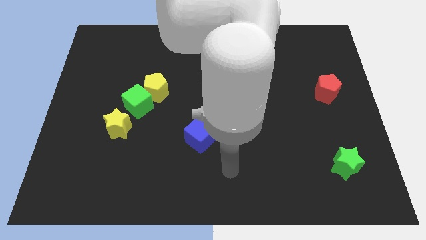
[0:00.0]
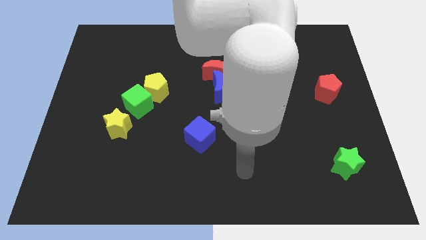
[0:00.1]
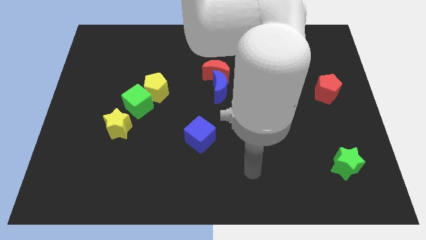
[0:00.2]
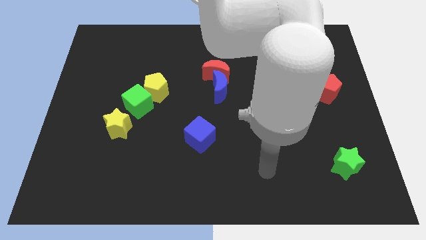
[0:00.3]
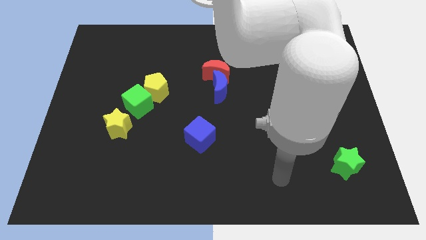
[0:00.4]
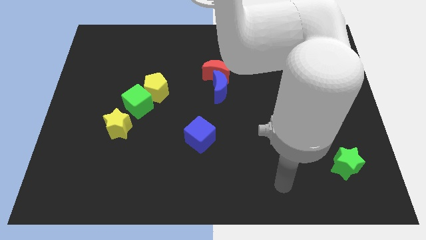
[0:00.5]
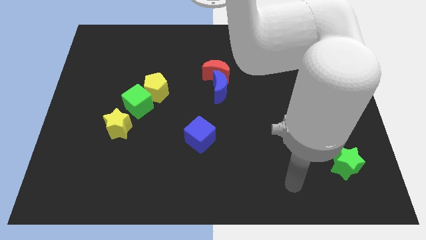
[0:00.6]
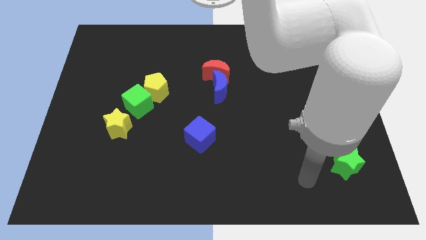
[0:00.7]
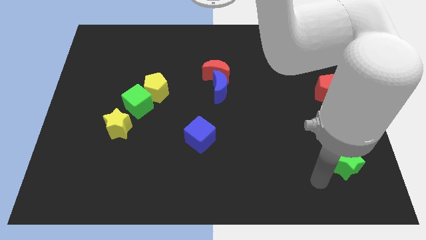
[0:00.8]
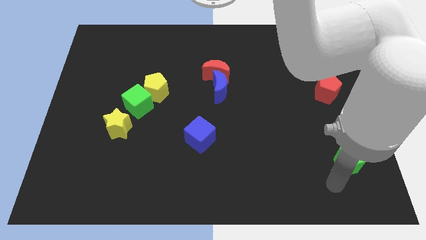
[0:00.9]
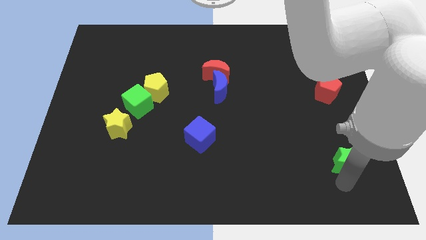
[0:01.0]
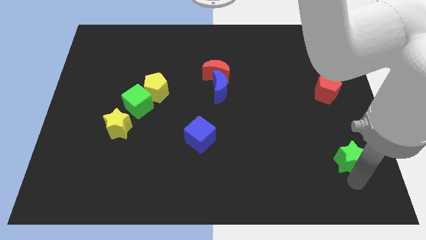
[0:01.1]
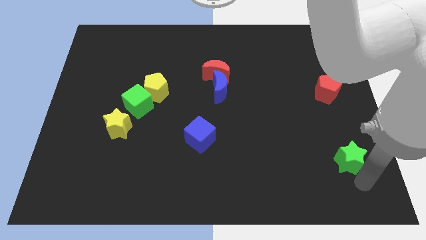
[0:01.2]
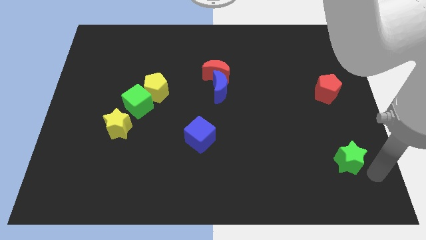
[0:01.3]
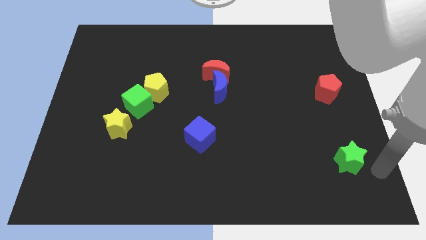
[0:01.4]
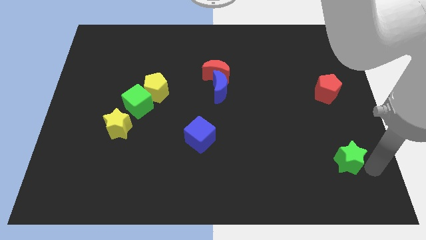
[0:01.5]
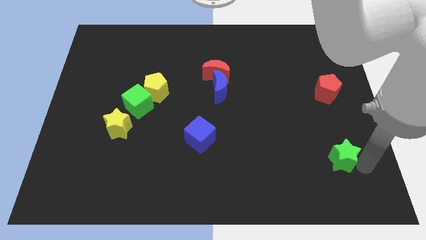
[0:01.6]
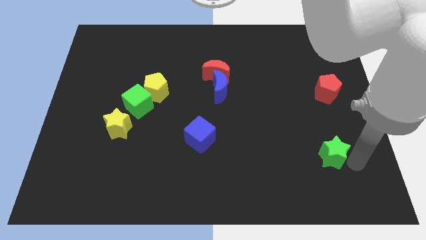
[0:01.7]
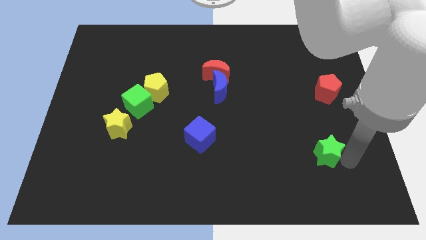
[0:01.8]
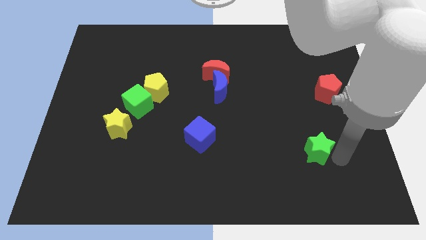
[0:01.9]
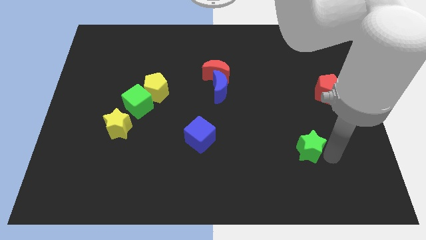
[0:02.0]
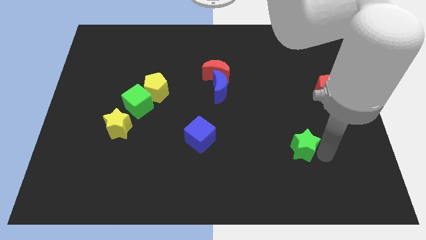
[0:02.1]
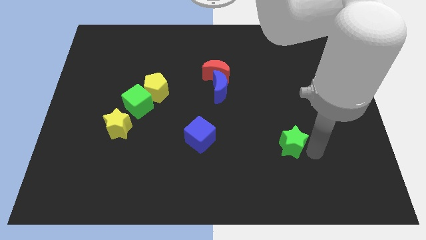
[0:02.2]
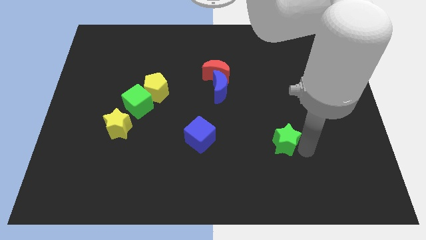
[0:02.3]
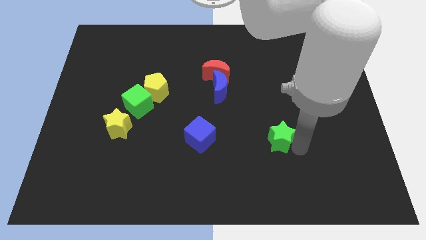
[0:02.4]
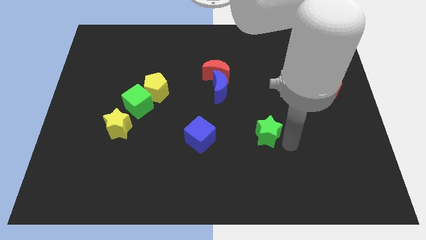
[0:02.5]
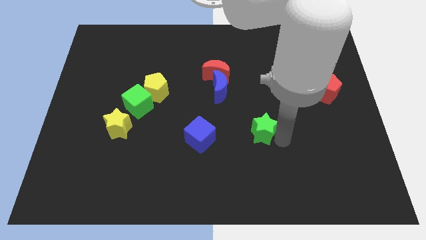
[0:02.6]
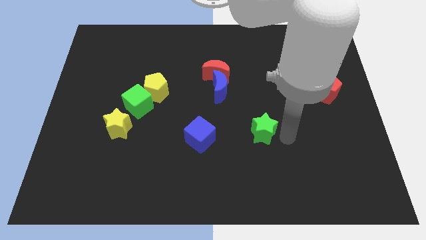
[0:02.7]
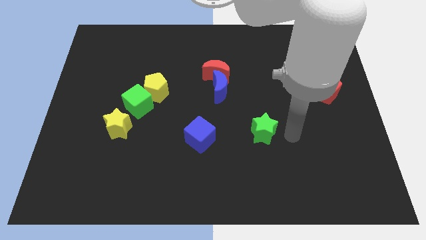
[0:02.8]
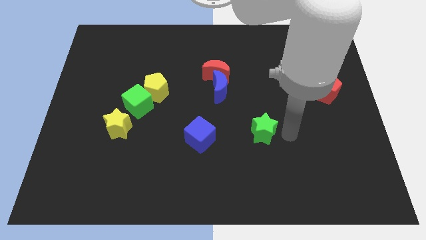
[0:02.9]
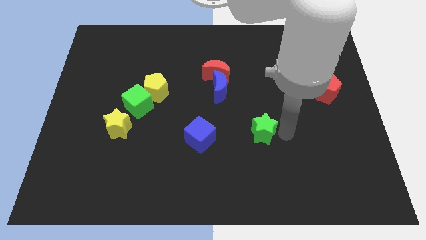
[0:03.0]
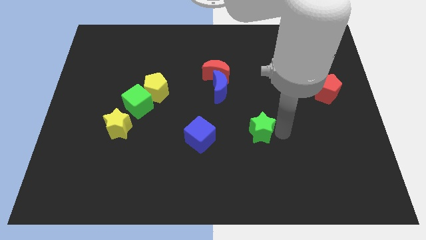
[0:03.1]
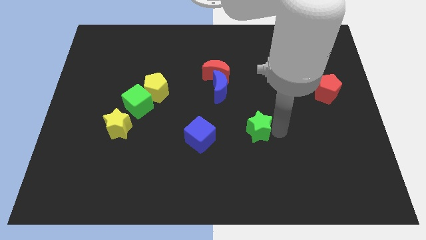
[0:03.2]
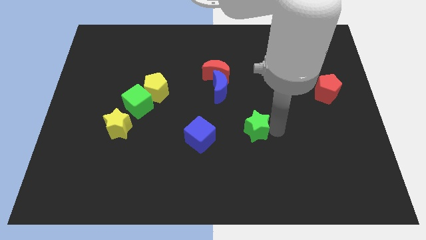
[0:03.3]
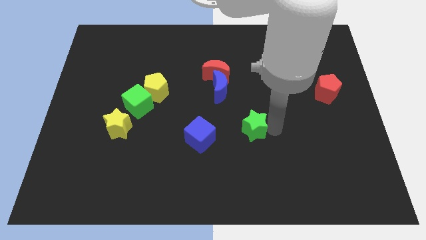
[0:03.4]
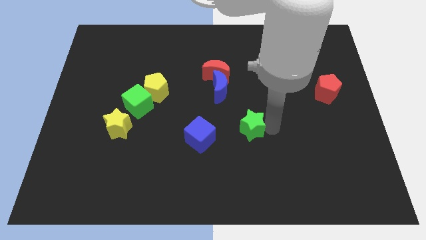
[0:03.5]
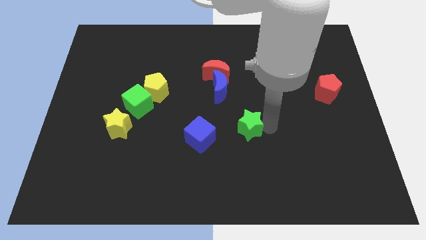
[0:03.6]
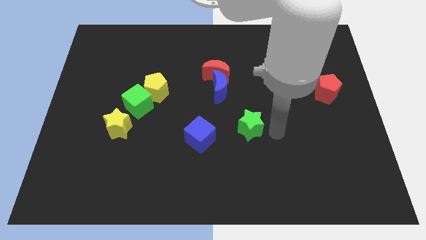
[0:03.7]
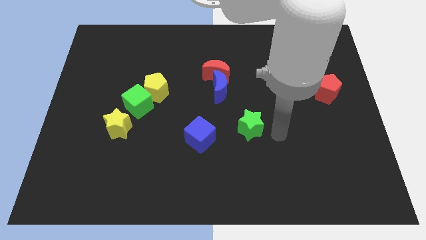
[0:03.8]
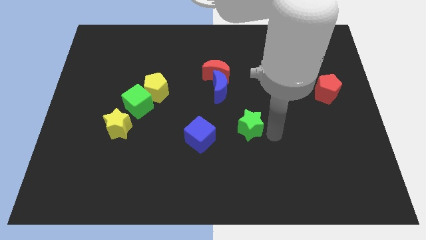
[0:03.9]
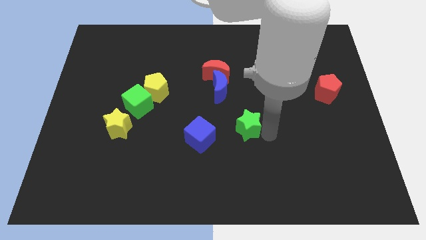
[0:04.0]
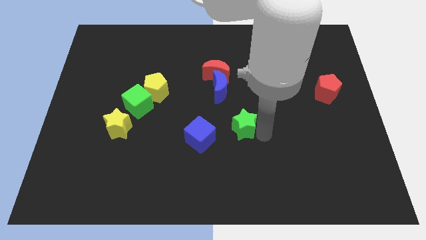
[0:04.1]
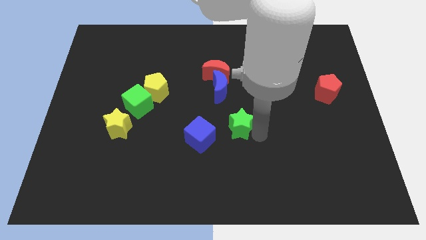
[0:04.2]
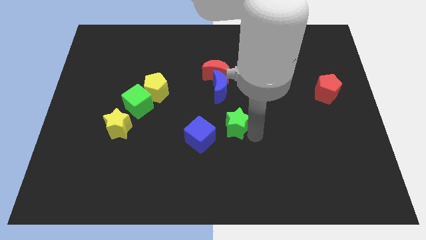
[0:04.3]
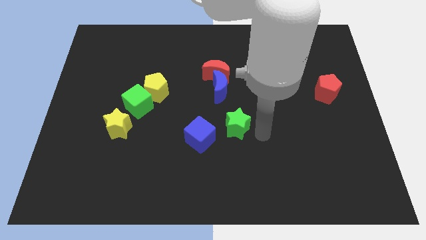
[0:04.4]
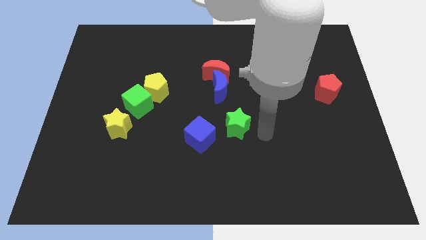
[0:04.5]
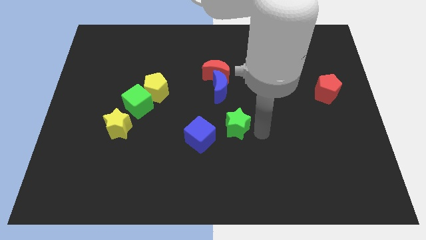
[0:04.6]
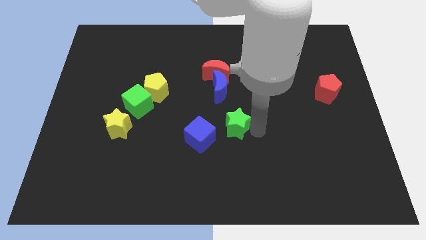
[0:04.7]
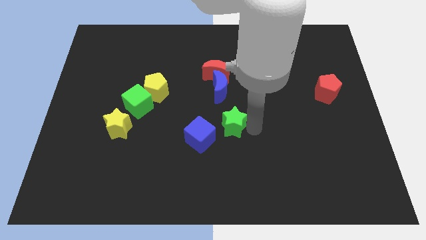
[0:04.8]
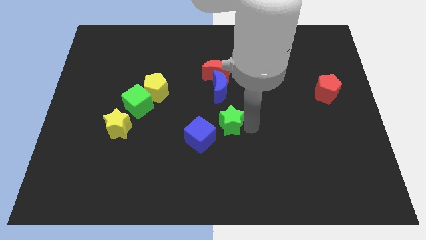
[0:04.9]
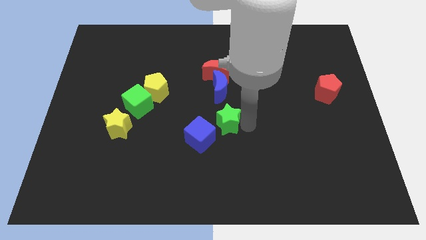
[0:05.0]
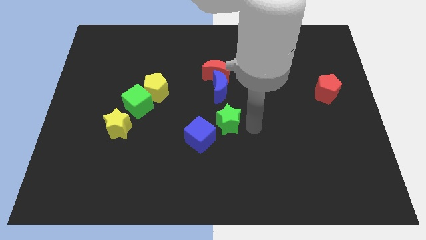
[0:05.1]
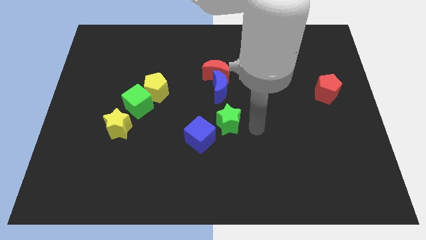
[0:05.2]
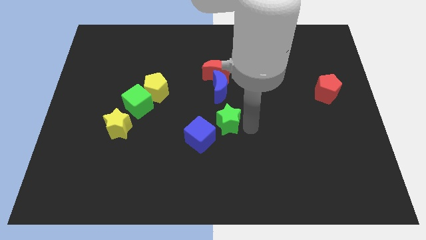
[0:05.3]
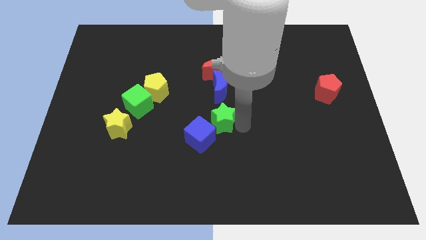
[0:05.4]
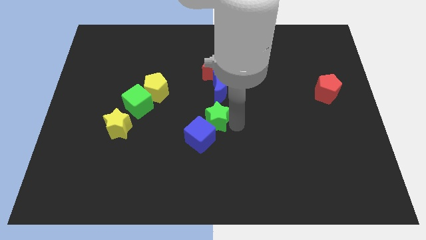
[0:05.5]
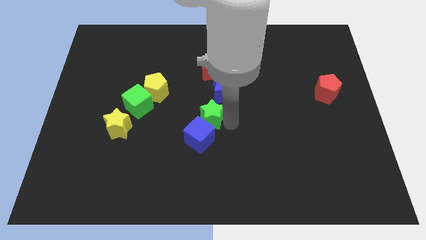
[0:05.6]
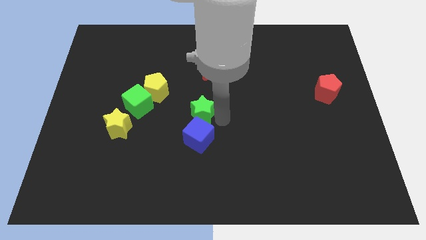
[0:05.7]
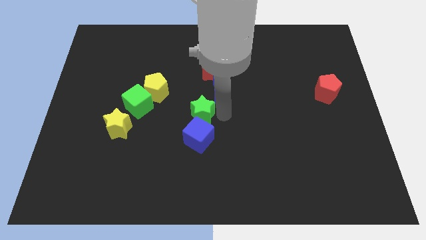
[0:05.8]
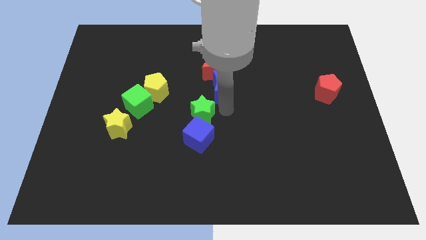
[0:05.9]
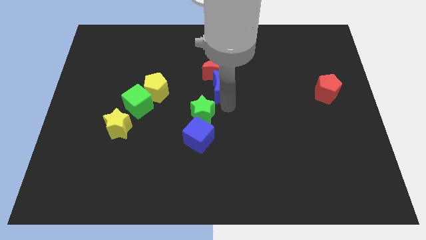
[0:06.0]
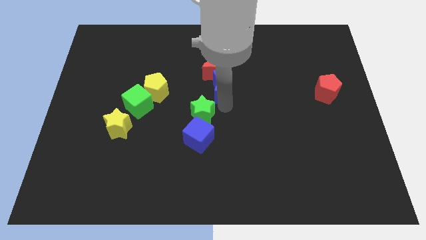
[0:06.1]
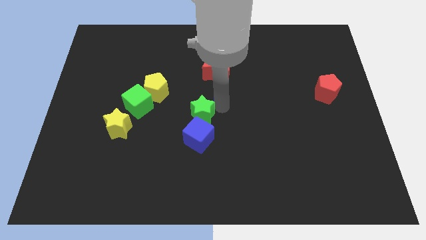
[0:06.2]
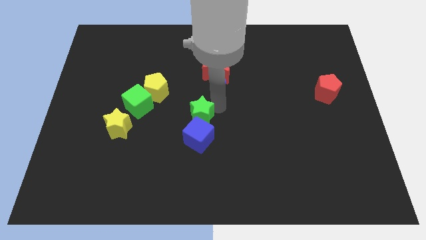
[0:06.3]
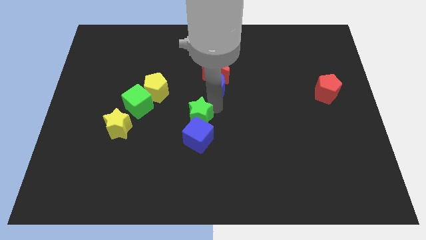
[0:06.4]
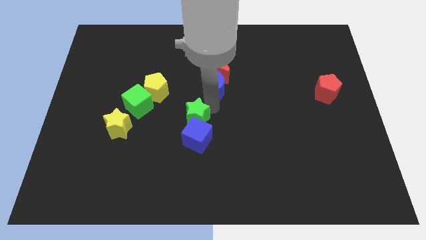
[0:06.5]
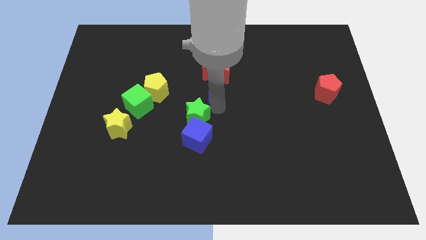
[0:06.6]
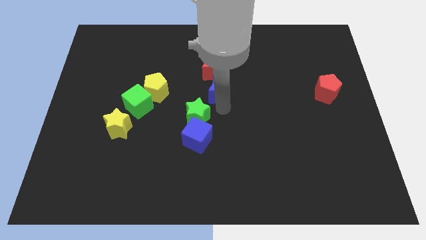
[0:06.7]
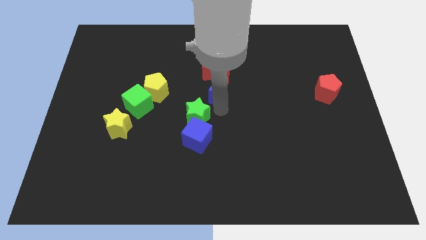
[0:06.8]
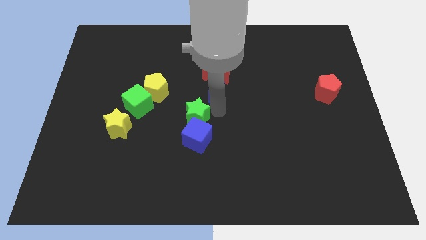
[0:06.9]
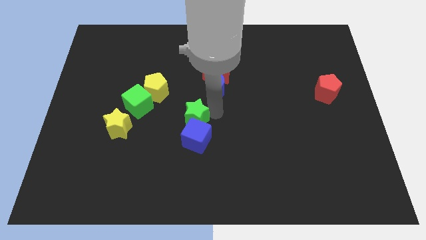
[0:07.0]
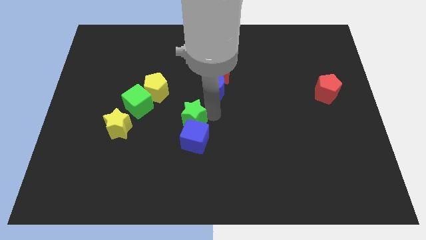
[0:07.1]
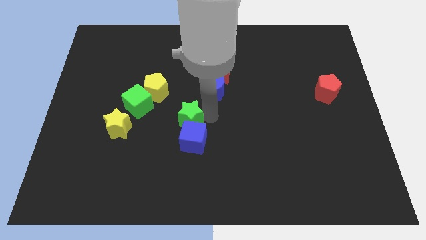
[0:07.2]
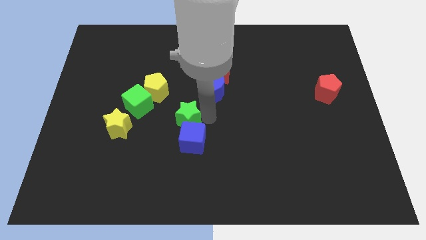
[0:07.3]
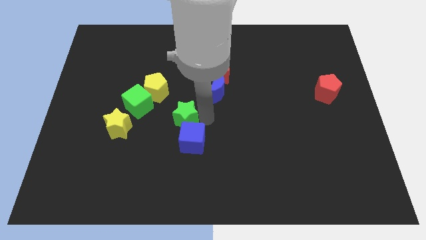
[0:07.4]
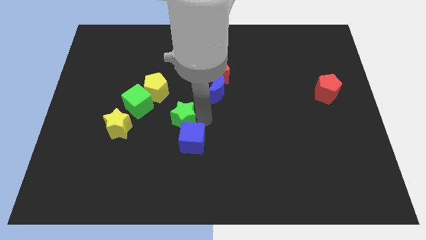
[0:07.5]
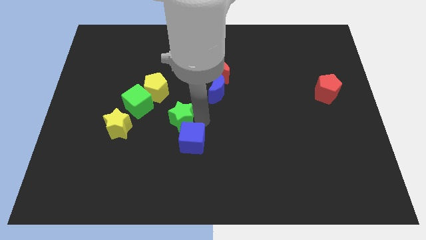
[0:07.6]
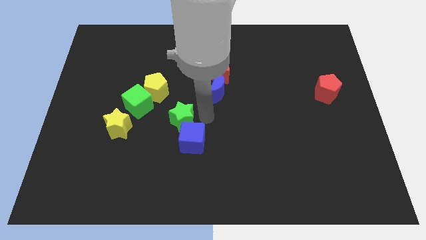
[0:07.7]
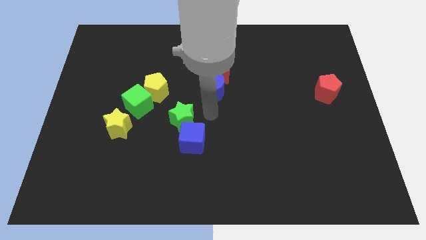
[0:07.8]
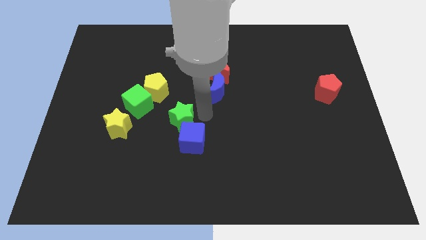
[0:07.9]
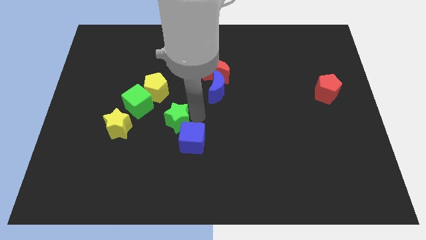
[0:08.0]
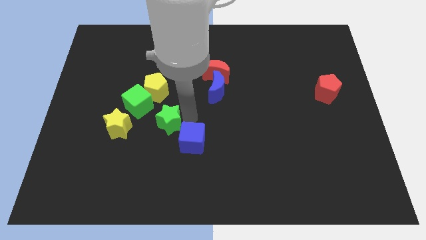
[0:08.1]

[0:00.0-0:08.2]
move the green star to the bottom of the yellow pentagon
